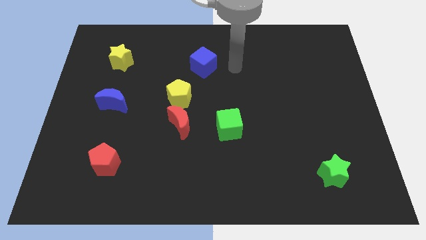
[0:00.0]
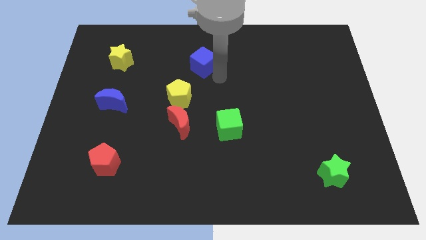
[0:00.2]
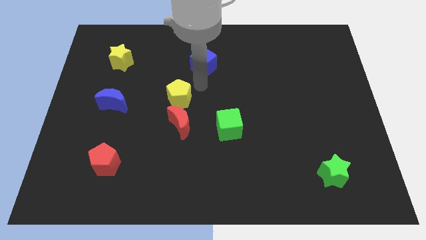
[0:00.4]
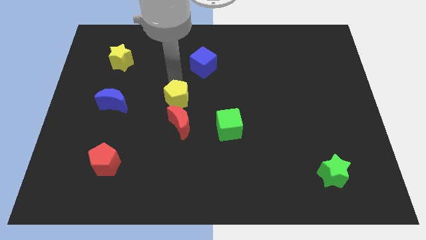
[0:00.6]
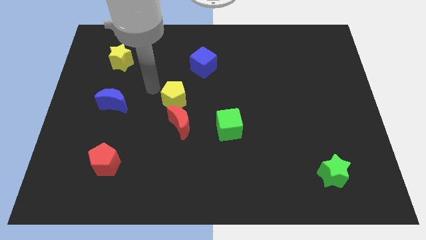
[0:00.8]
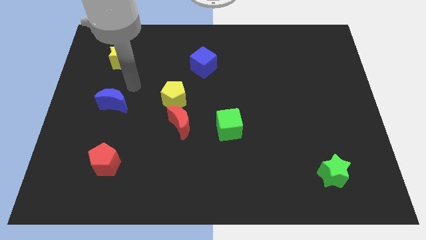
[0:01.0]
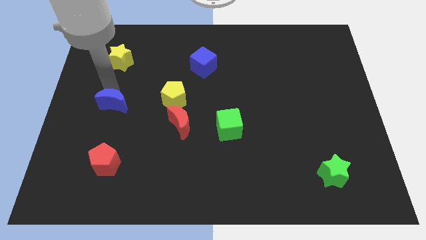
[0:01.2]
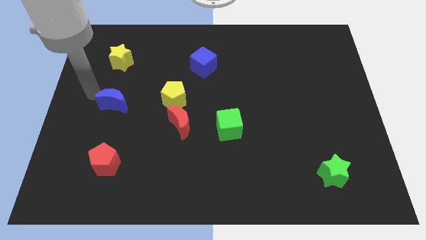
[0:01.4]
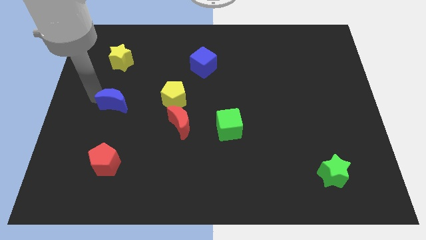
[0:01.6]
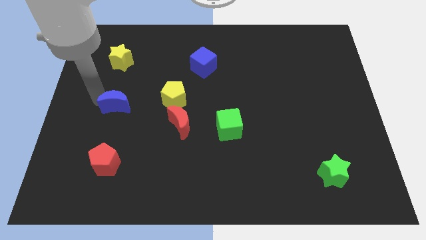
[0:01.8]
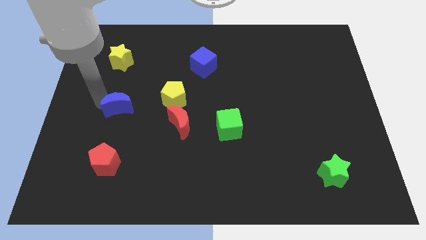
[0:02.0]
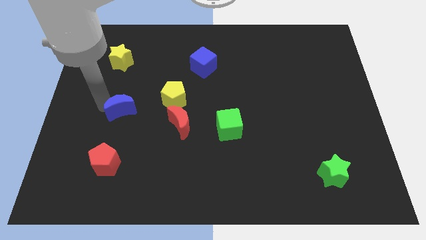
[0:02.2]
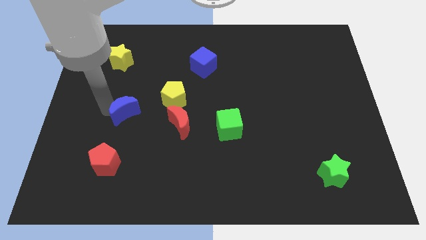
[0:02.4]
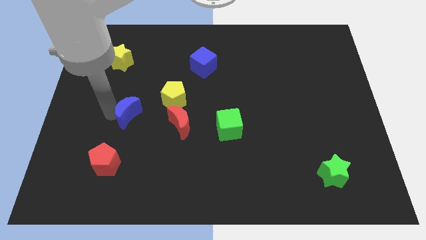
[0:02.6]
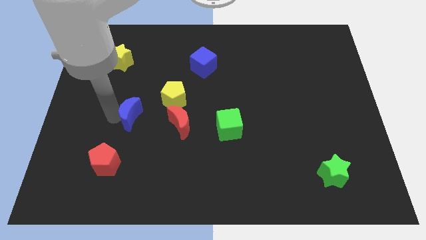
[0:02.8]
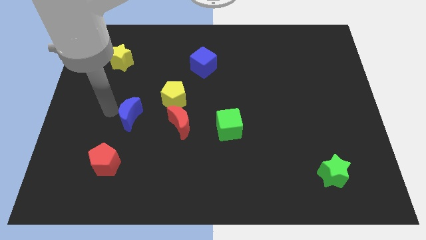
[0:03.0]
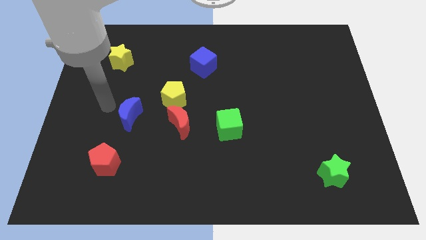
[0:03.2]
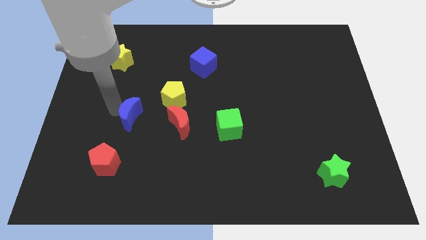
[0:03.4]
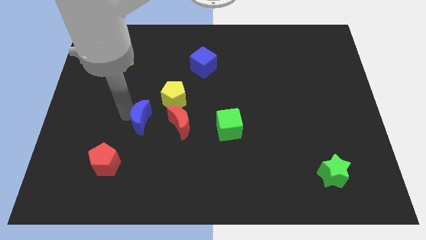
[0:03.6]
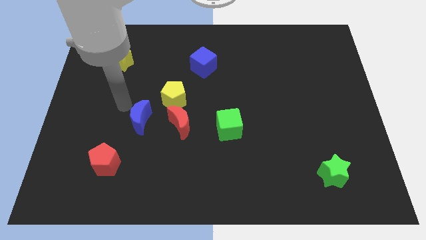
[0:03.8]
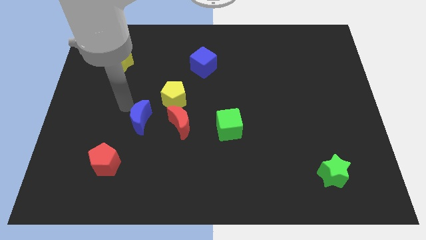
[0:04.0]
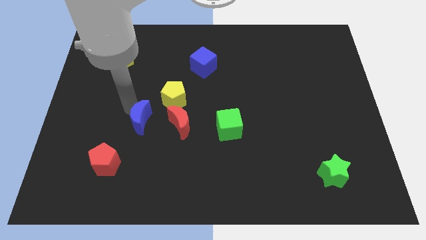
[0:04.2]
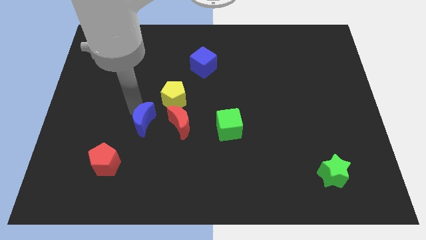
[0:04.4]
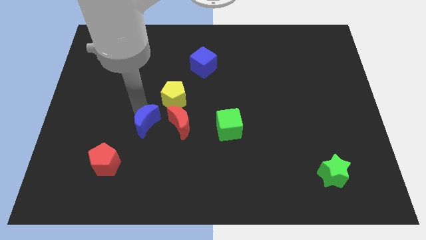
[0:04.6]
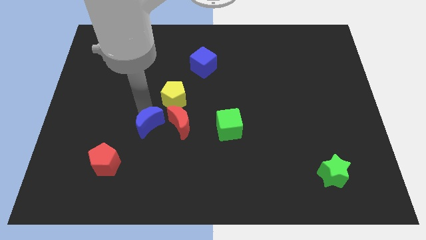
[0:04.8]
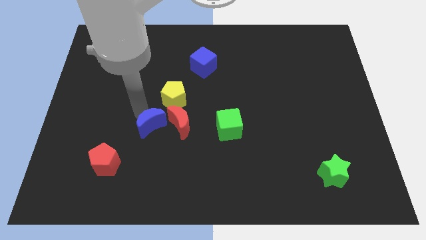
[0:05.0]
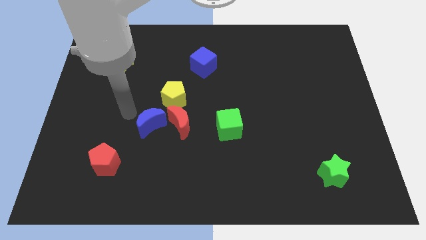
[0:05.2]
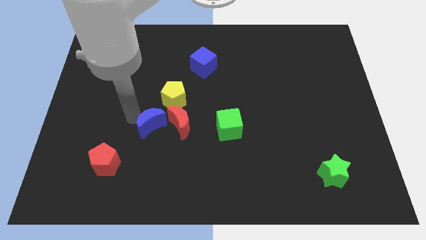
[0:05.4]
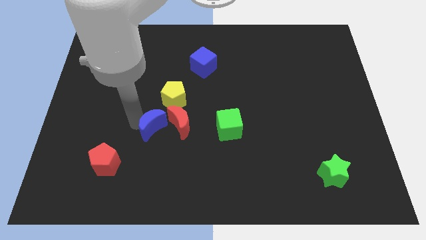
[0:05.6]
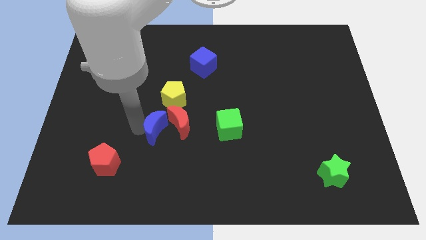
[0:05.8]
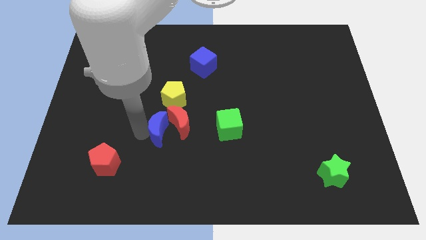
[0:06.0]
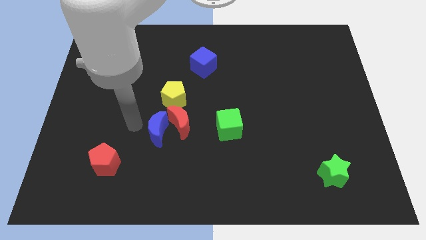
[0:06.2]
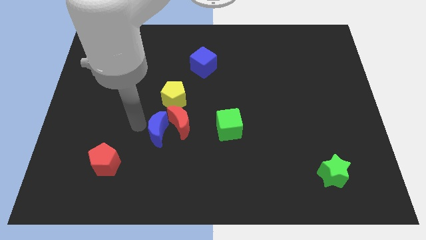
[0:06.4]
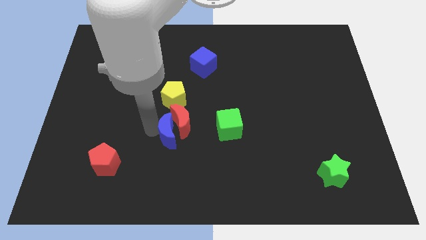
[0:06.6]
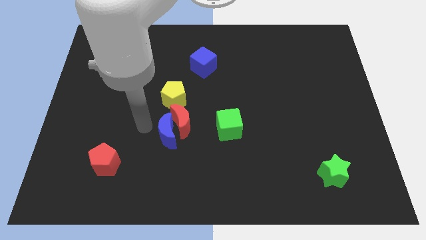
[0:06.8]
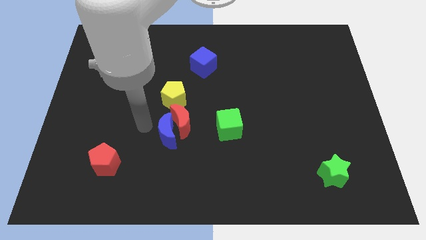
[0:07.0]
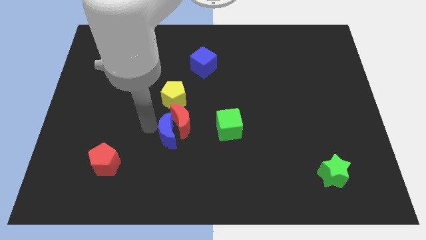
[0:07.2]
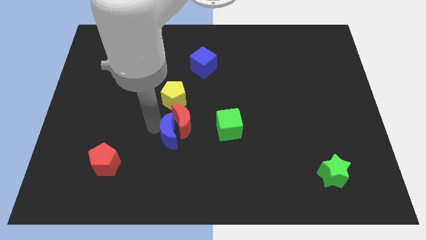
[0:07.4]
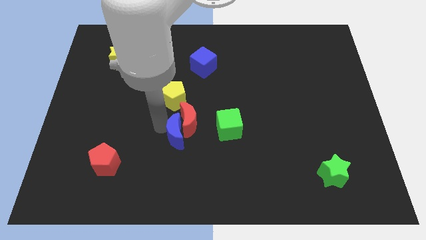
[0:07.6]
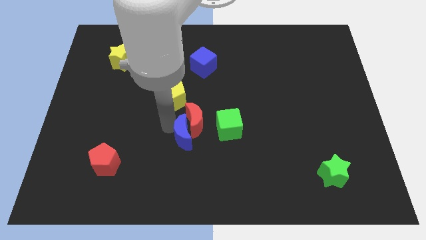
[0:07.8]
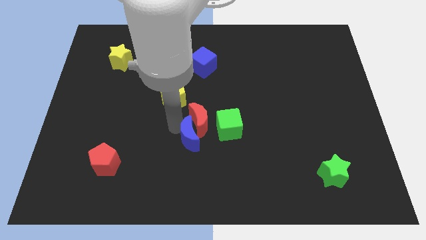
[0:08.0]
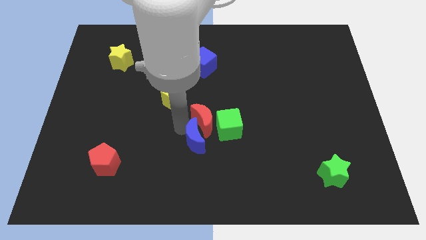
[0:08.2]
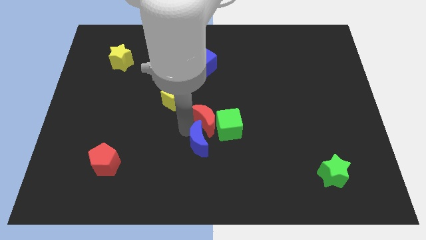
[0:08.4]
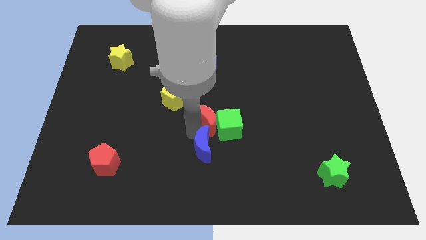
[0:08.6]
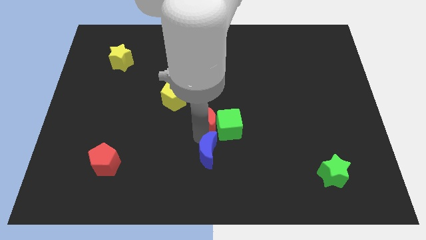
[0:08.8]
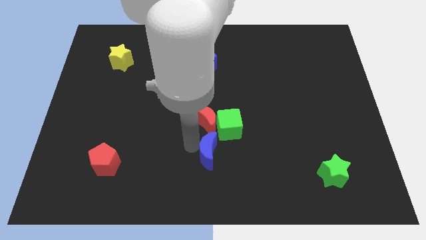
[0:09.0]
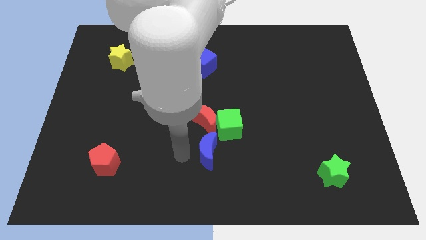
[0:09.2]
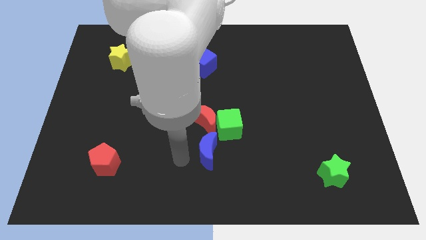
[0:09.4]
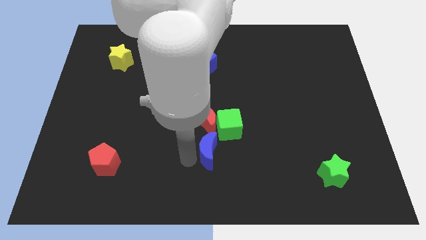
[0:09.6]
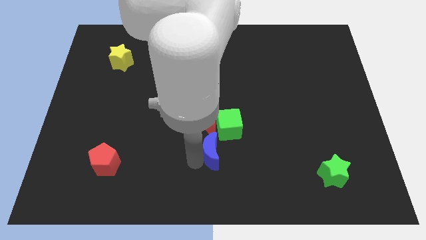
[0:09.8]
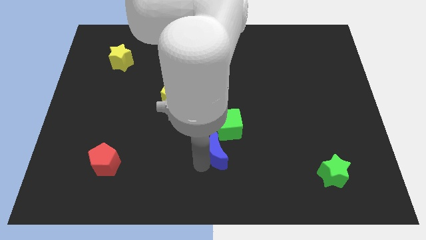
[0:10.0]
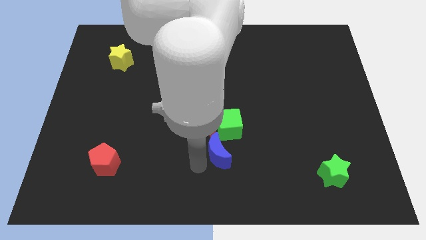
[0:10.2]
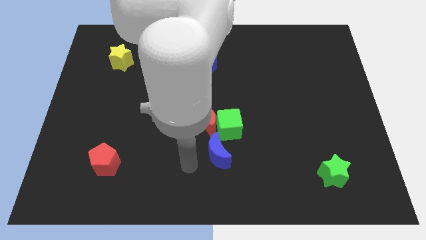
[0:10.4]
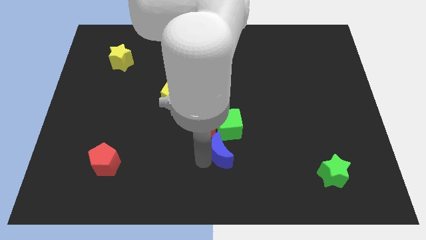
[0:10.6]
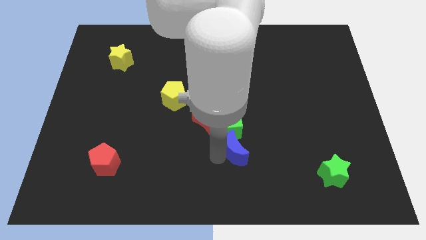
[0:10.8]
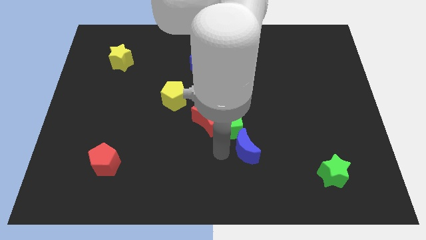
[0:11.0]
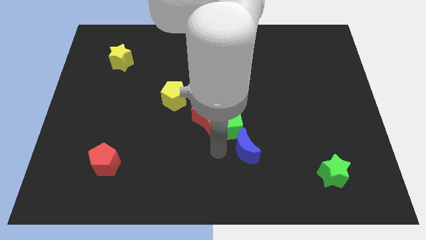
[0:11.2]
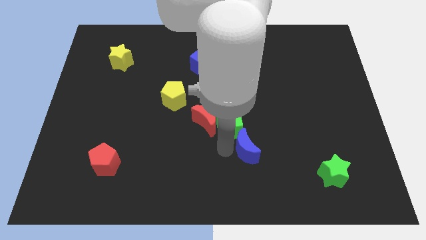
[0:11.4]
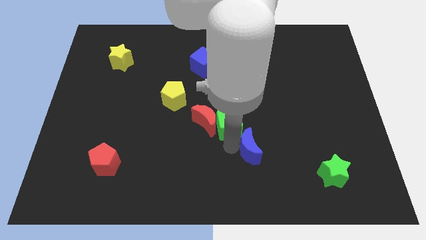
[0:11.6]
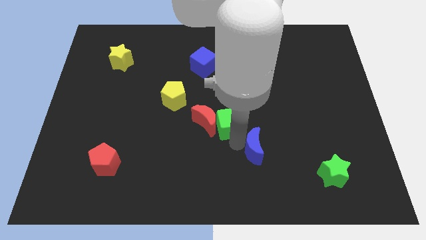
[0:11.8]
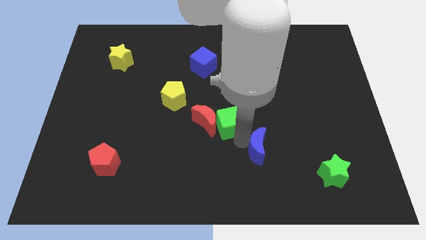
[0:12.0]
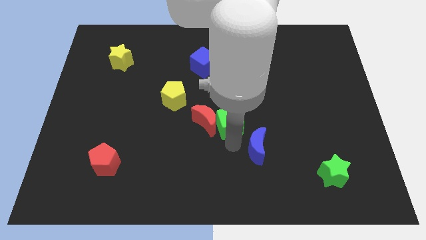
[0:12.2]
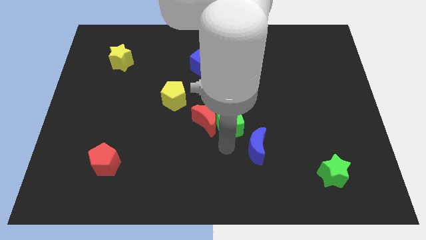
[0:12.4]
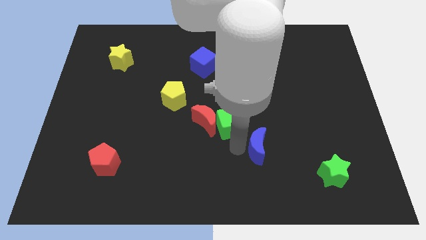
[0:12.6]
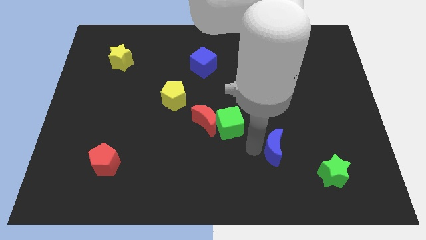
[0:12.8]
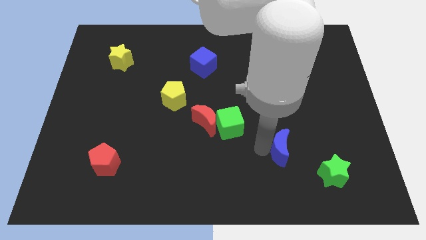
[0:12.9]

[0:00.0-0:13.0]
slide the blue moon to the top left of the green star

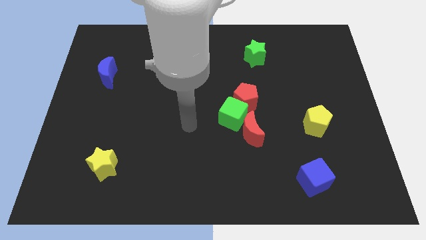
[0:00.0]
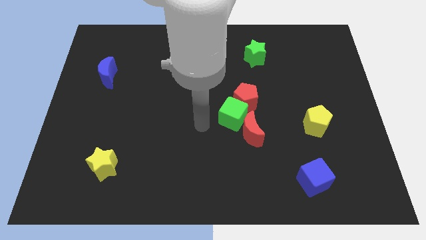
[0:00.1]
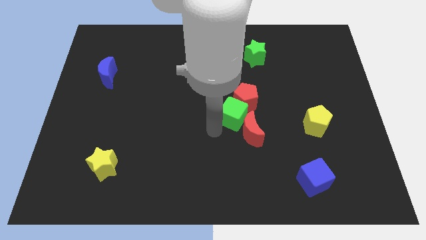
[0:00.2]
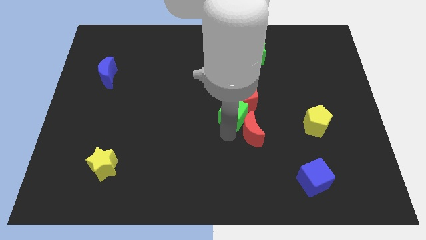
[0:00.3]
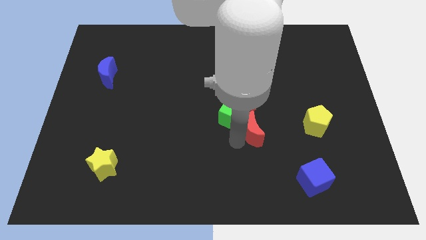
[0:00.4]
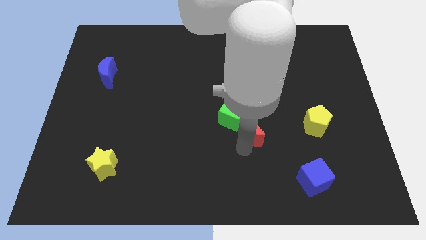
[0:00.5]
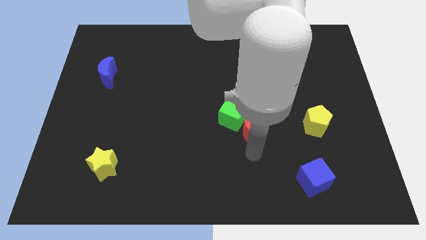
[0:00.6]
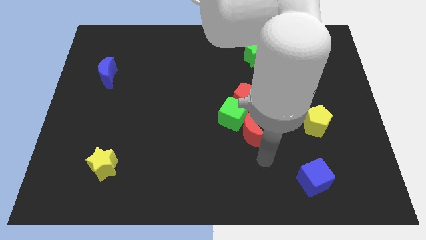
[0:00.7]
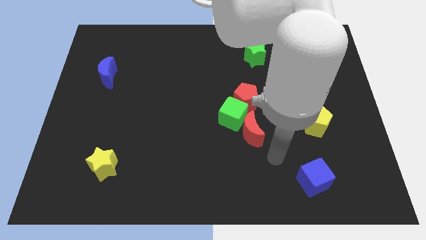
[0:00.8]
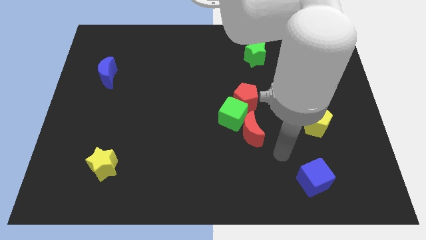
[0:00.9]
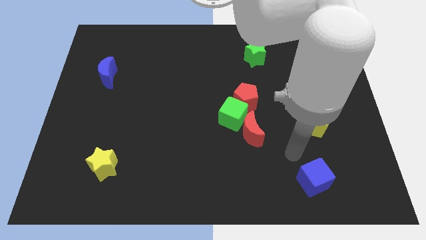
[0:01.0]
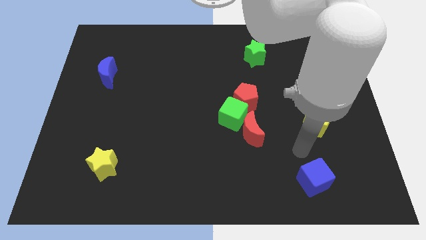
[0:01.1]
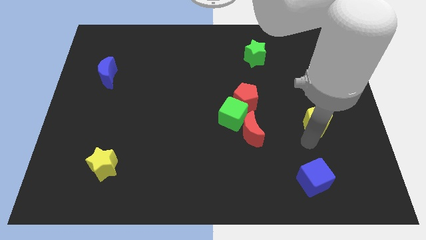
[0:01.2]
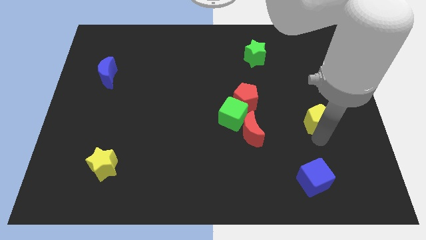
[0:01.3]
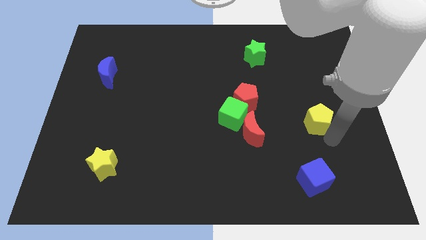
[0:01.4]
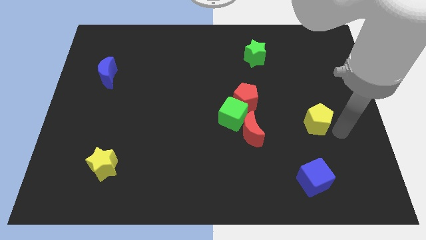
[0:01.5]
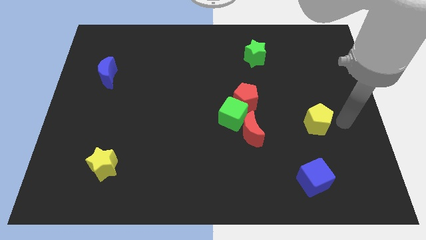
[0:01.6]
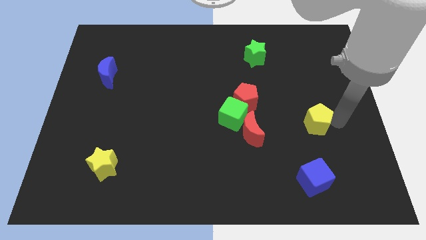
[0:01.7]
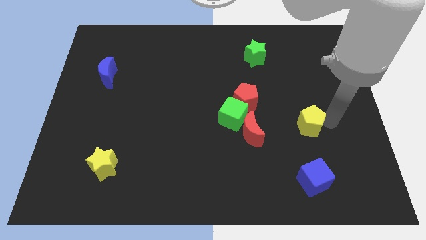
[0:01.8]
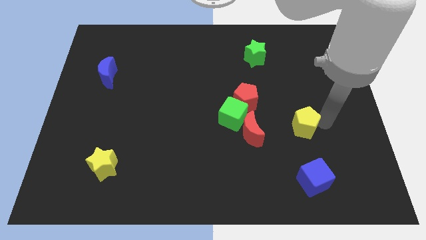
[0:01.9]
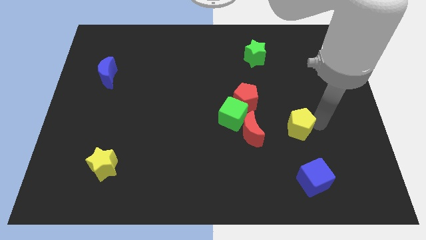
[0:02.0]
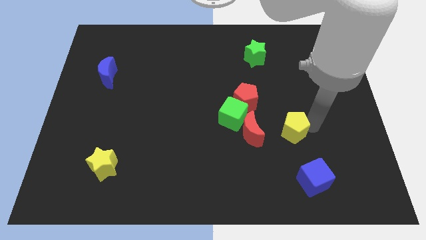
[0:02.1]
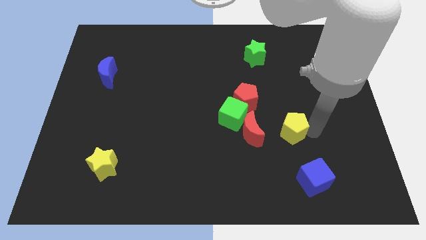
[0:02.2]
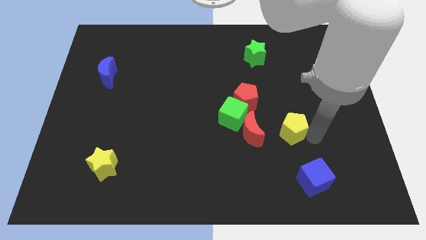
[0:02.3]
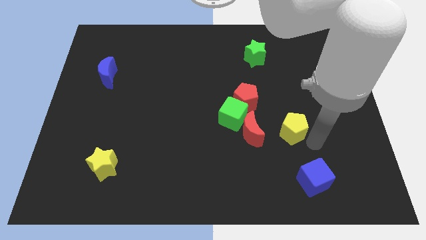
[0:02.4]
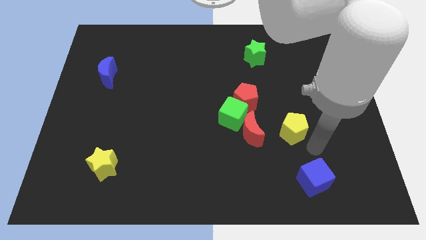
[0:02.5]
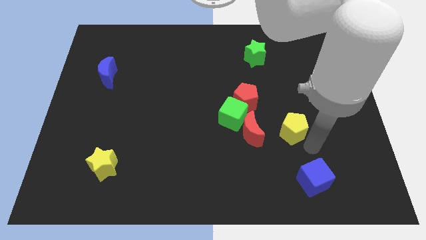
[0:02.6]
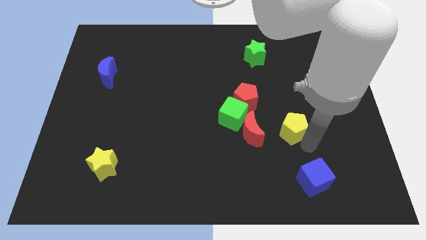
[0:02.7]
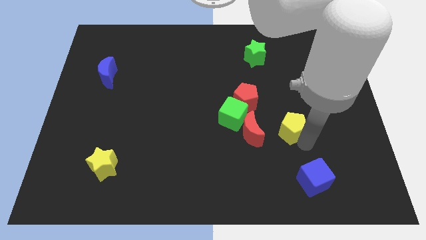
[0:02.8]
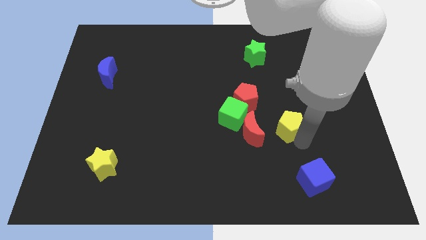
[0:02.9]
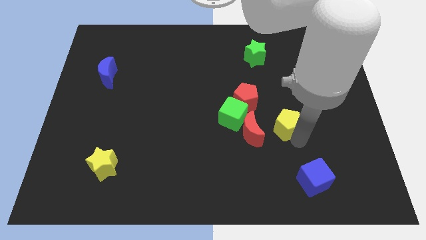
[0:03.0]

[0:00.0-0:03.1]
push the yellow pentagon to the top right of the red moon
